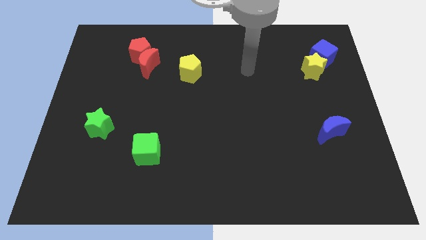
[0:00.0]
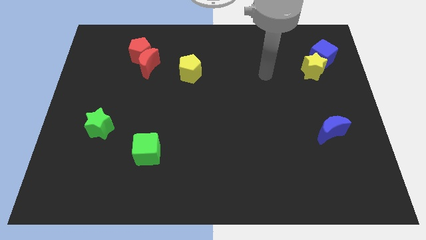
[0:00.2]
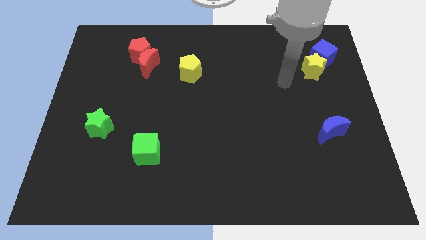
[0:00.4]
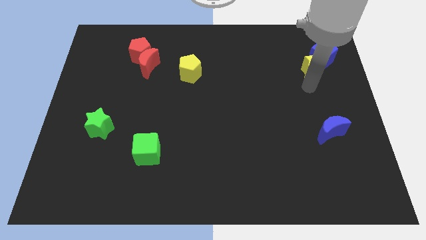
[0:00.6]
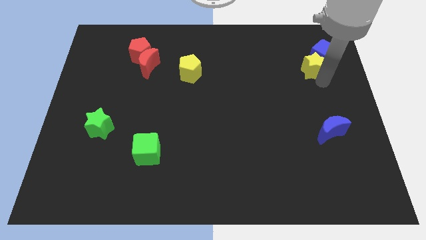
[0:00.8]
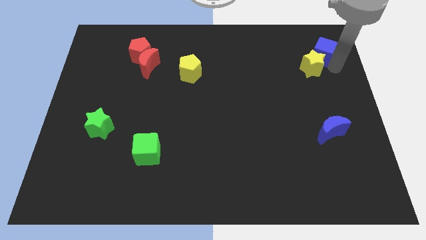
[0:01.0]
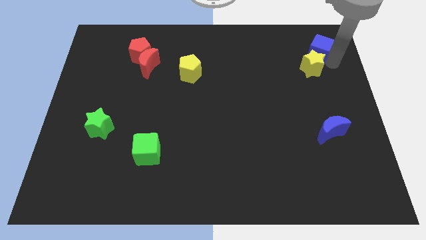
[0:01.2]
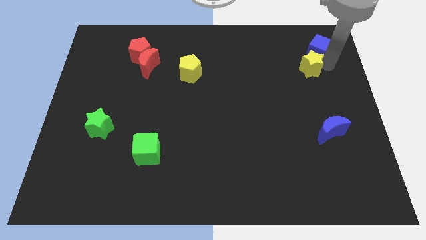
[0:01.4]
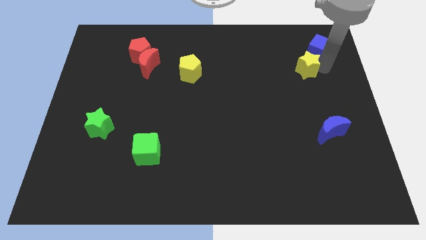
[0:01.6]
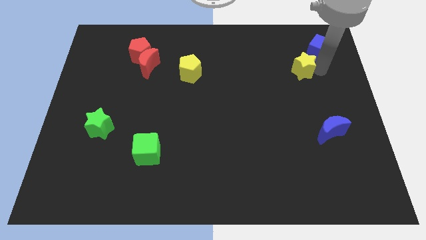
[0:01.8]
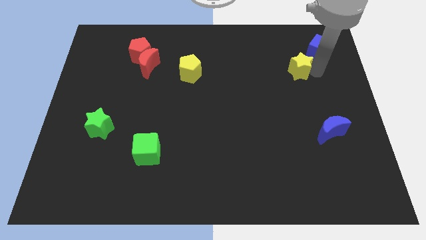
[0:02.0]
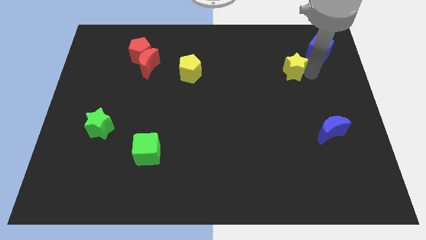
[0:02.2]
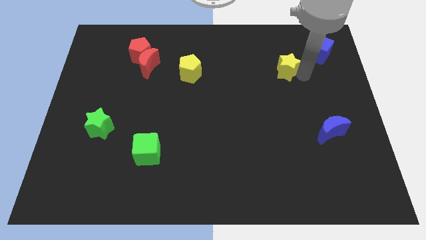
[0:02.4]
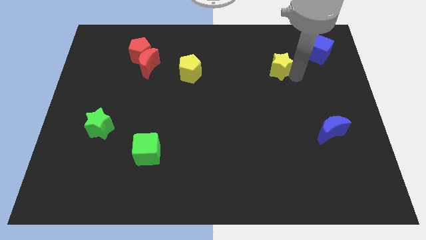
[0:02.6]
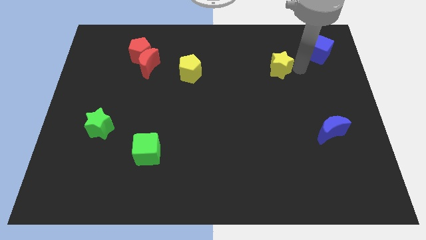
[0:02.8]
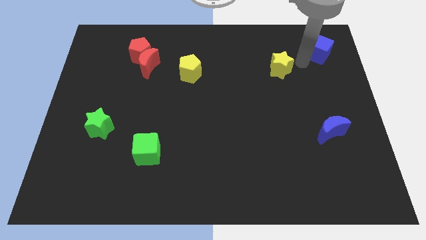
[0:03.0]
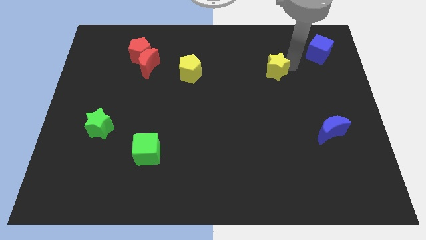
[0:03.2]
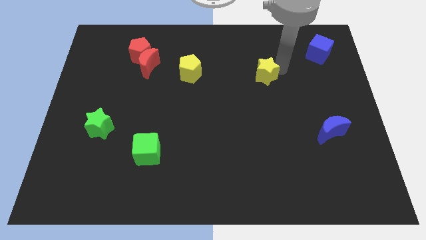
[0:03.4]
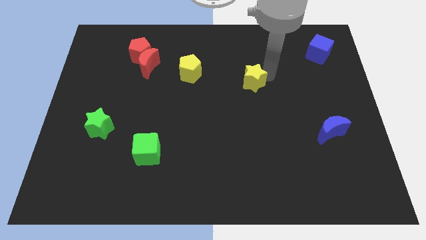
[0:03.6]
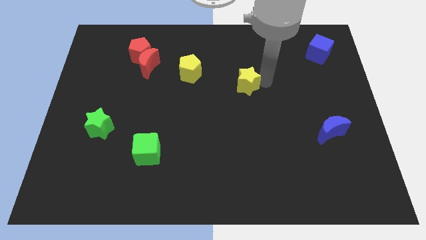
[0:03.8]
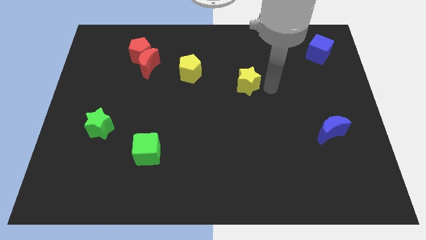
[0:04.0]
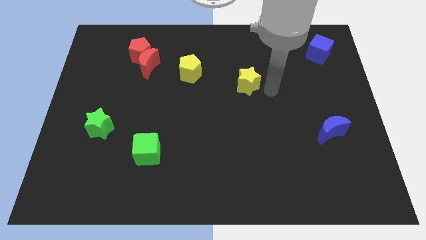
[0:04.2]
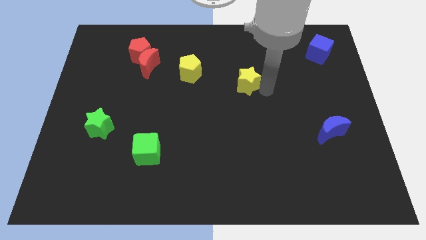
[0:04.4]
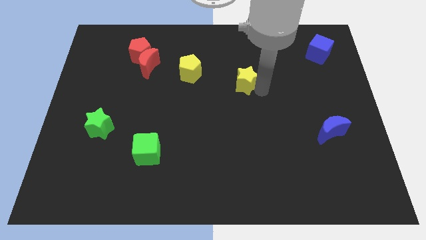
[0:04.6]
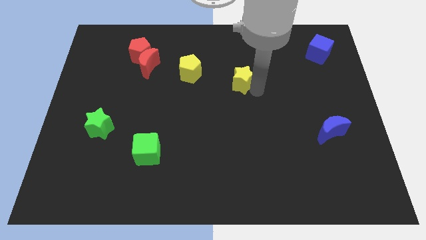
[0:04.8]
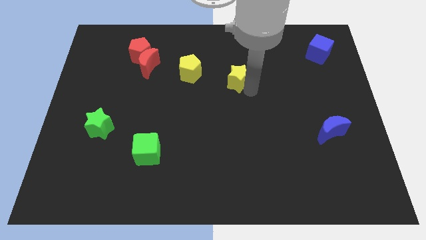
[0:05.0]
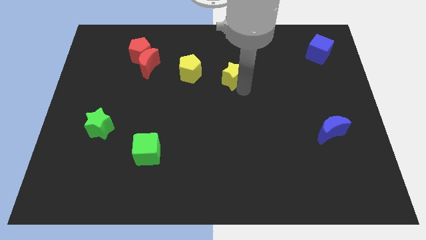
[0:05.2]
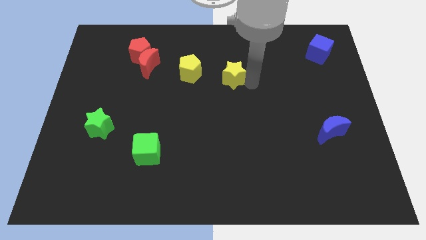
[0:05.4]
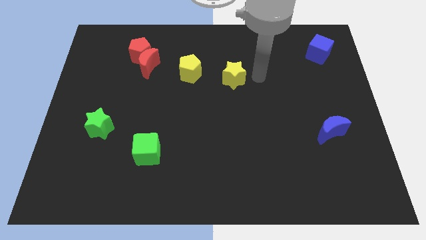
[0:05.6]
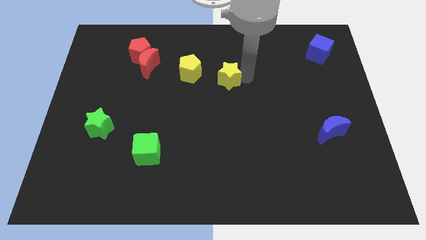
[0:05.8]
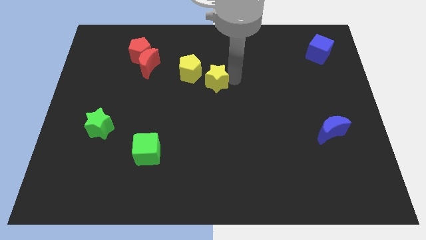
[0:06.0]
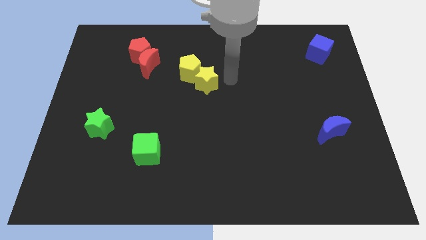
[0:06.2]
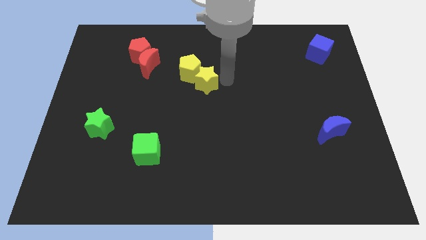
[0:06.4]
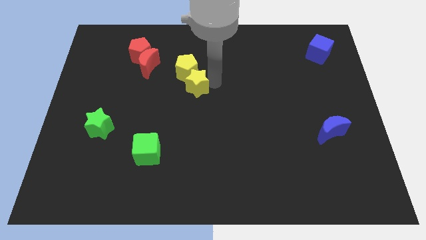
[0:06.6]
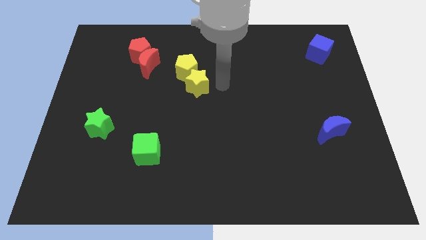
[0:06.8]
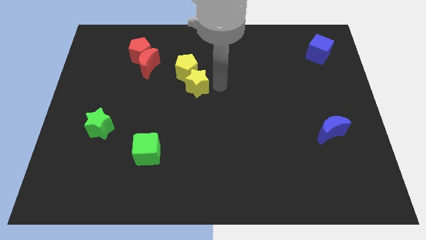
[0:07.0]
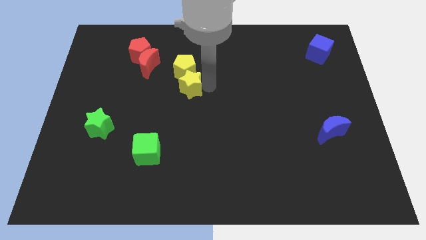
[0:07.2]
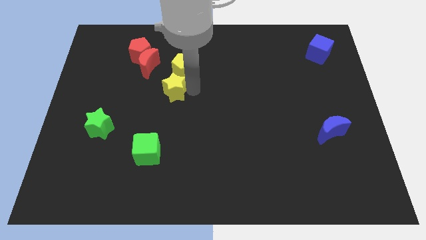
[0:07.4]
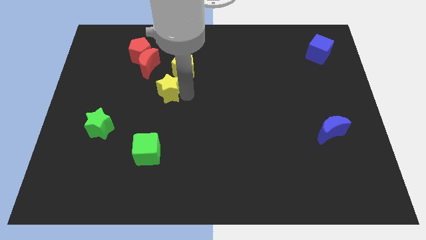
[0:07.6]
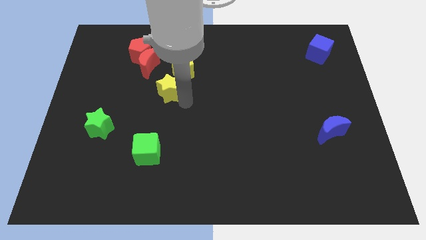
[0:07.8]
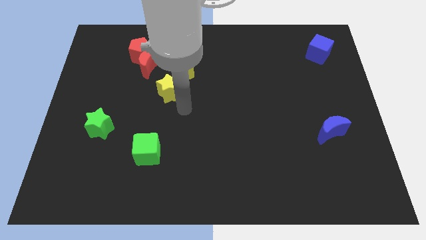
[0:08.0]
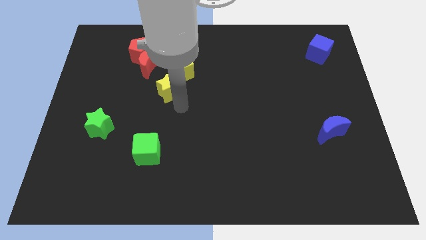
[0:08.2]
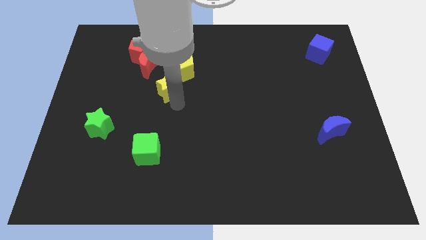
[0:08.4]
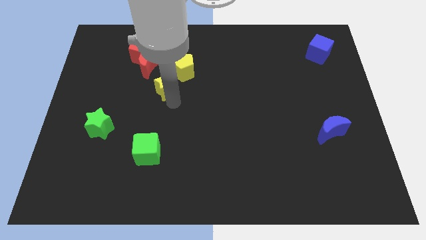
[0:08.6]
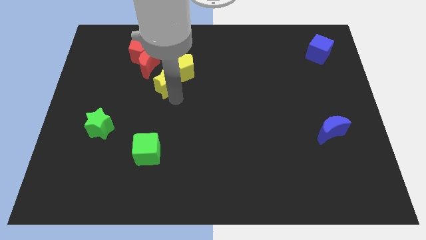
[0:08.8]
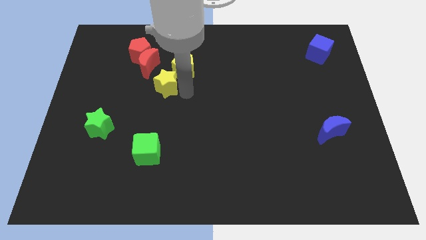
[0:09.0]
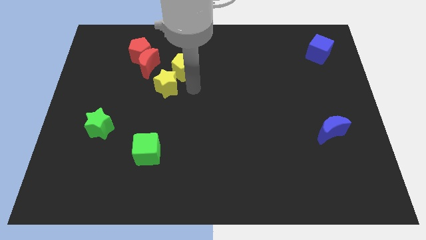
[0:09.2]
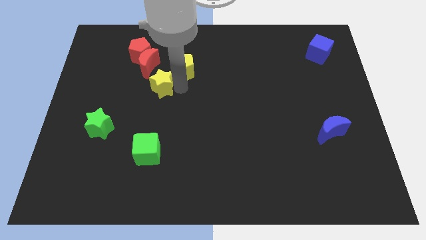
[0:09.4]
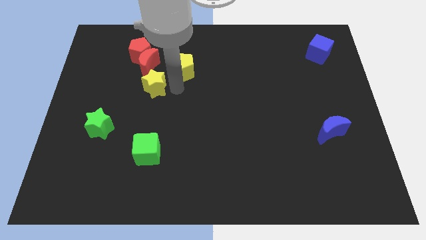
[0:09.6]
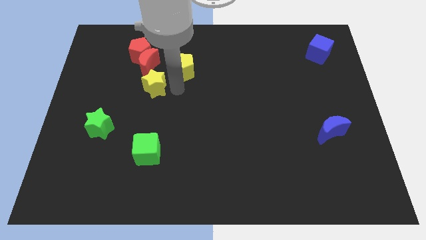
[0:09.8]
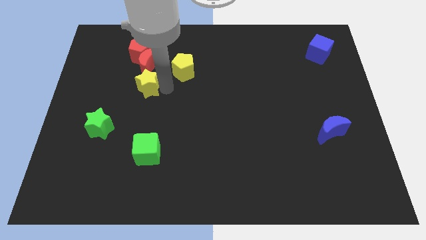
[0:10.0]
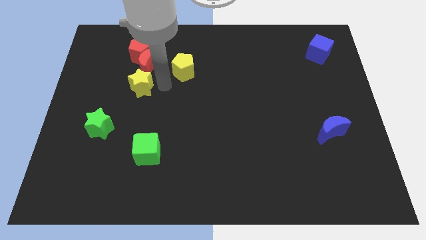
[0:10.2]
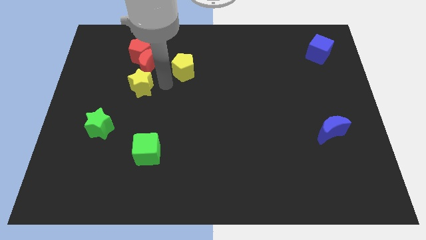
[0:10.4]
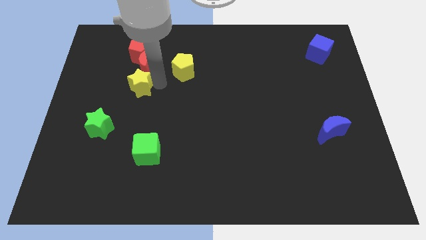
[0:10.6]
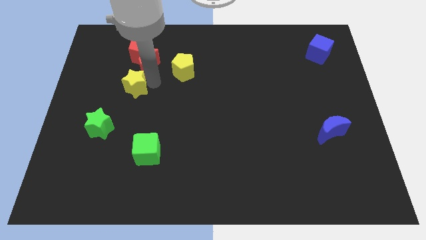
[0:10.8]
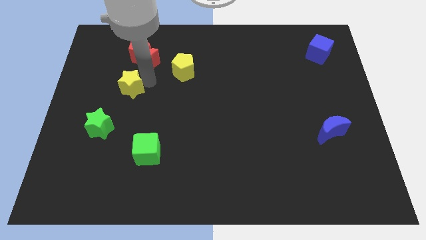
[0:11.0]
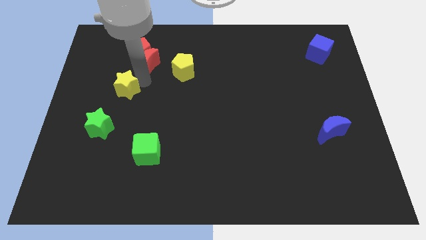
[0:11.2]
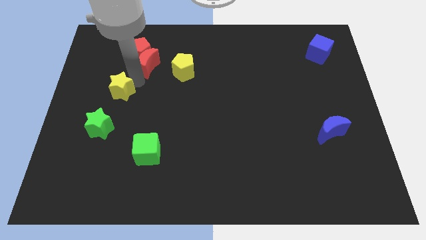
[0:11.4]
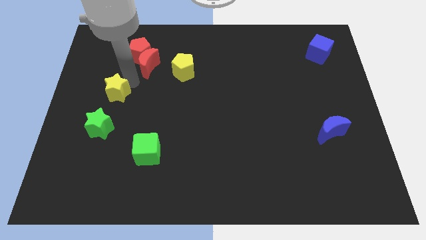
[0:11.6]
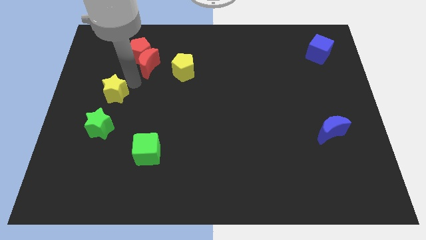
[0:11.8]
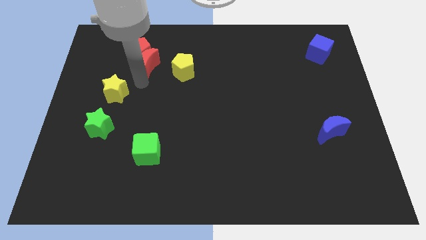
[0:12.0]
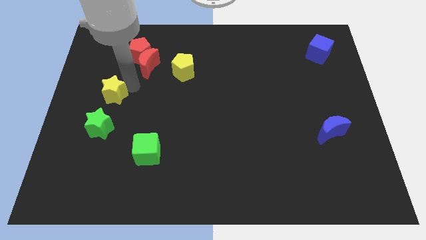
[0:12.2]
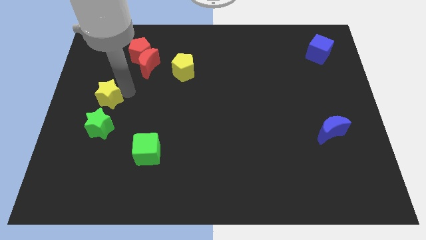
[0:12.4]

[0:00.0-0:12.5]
slide the yellow star to the left side of the board

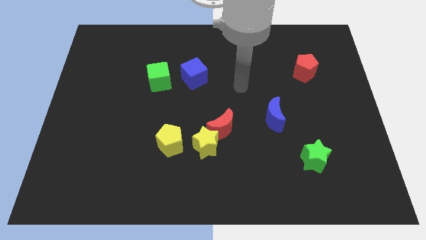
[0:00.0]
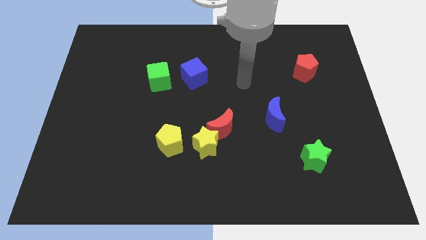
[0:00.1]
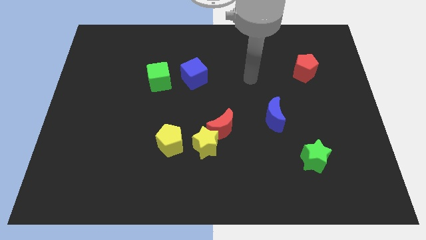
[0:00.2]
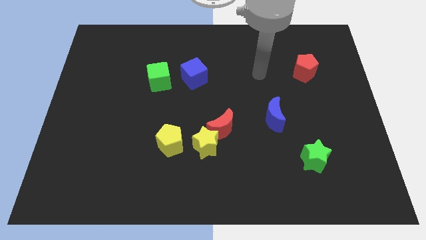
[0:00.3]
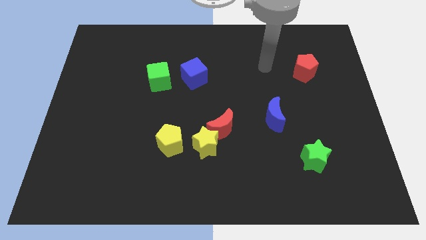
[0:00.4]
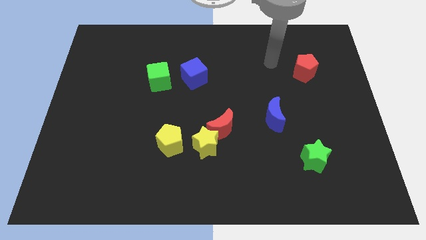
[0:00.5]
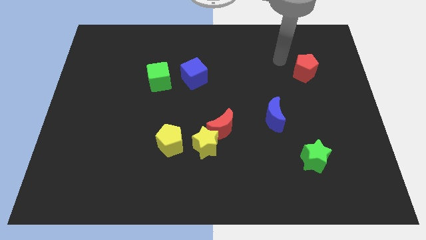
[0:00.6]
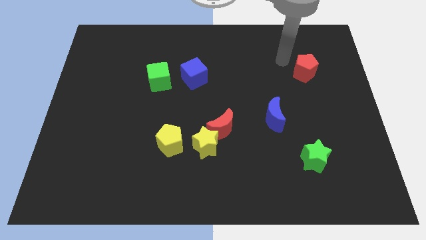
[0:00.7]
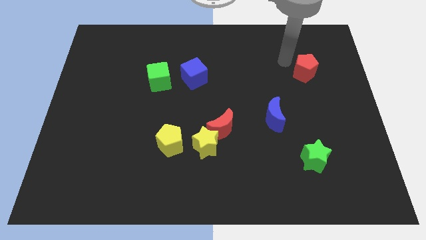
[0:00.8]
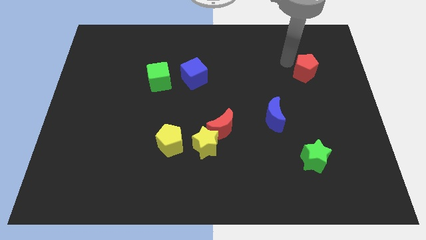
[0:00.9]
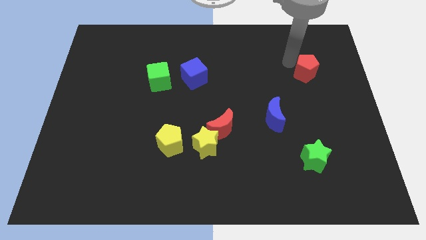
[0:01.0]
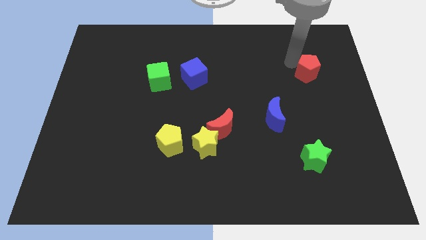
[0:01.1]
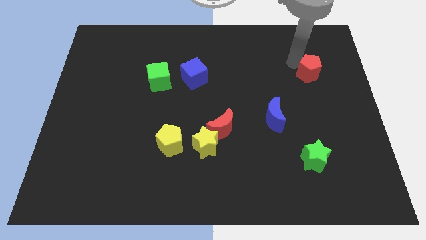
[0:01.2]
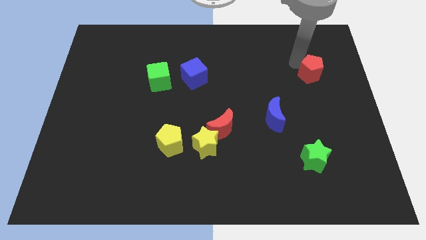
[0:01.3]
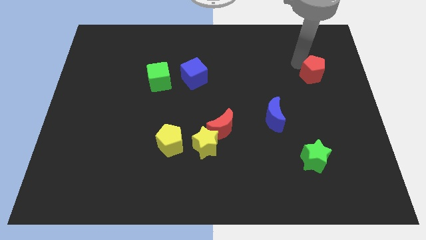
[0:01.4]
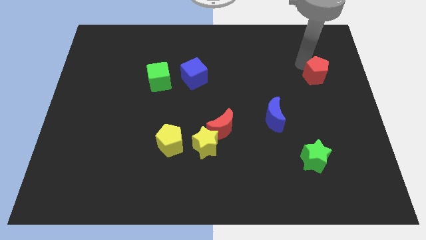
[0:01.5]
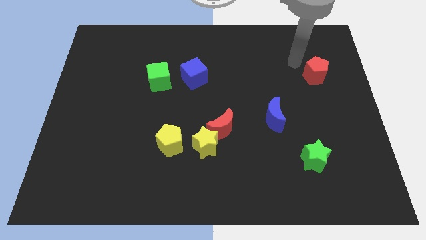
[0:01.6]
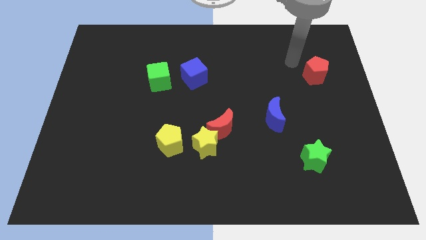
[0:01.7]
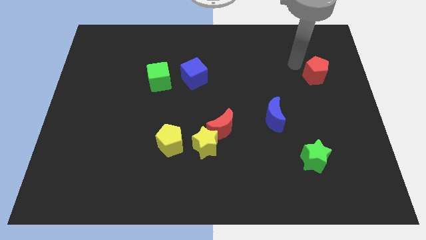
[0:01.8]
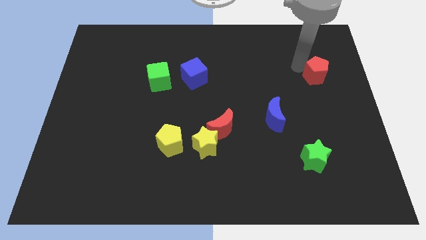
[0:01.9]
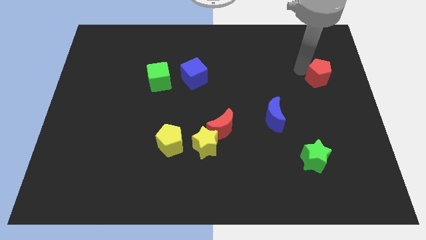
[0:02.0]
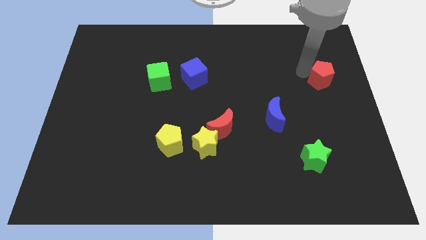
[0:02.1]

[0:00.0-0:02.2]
move the red pentagon to the center right
